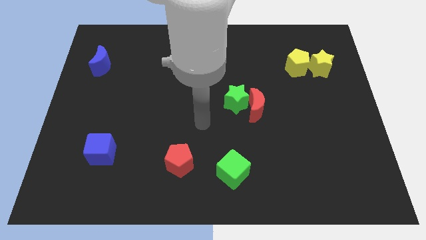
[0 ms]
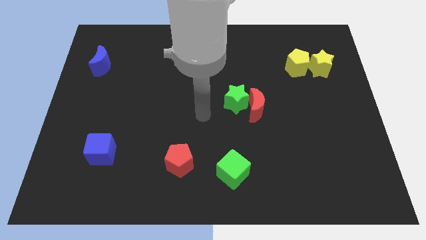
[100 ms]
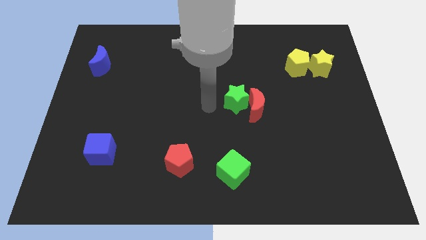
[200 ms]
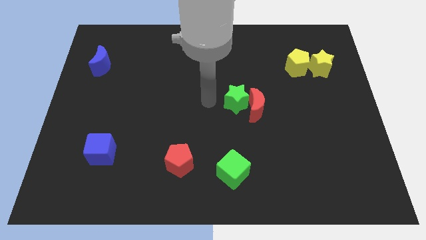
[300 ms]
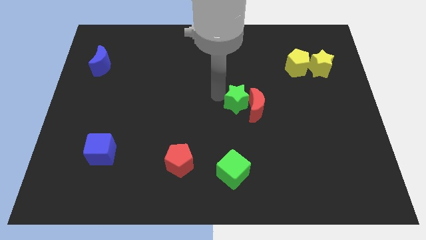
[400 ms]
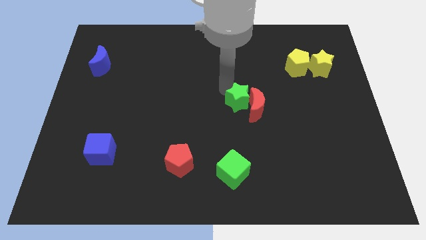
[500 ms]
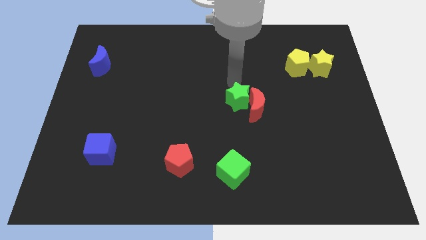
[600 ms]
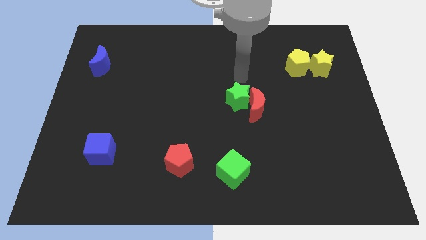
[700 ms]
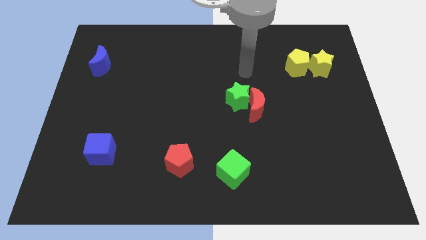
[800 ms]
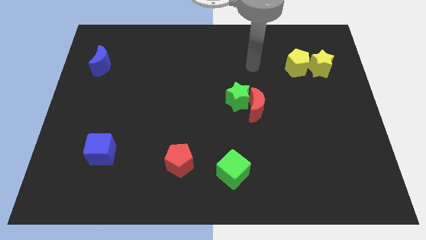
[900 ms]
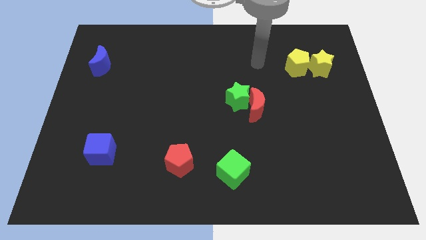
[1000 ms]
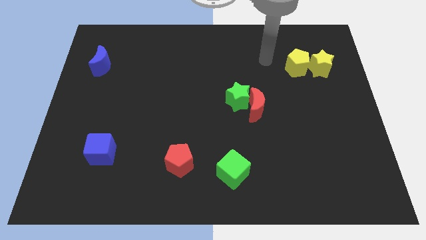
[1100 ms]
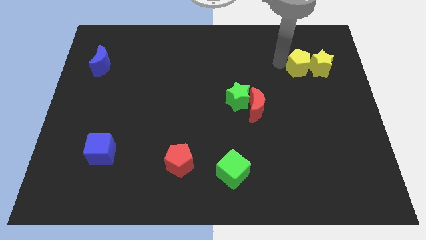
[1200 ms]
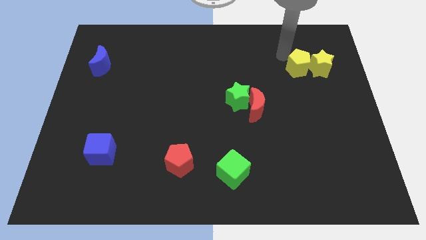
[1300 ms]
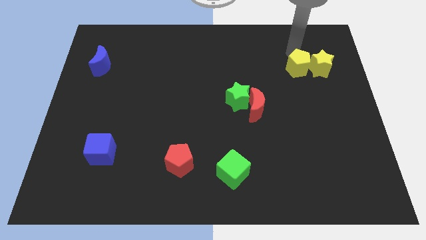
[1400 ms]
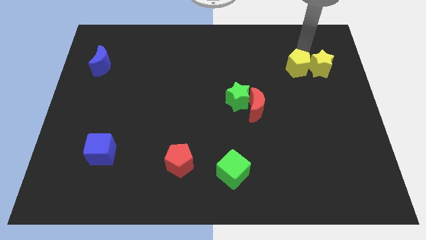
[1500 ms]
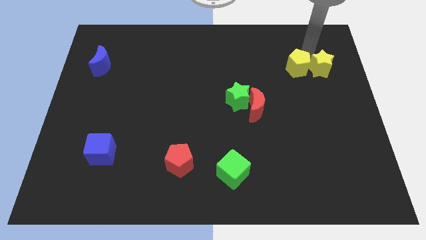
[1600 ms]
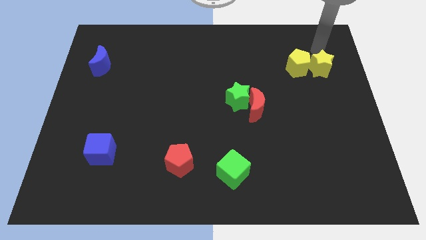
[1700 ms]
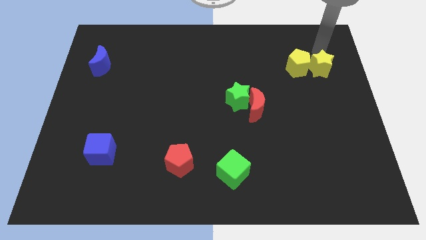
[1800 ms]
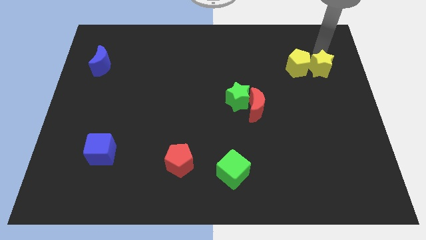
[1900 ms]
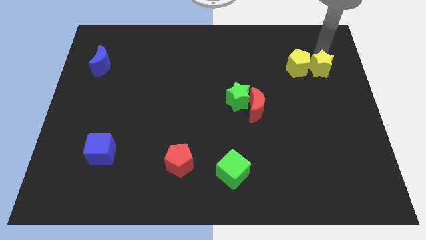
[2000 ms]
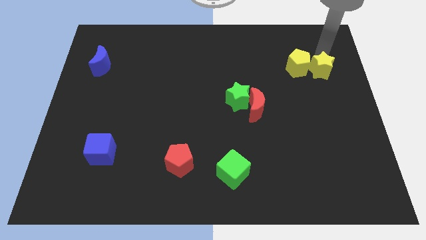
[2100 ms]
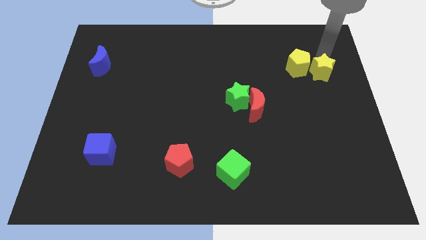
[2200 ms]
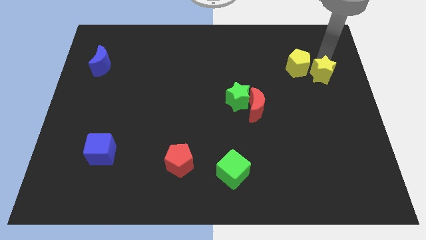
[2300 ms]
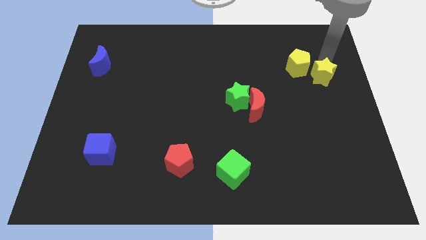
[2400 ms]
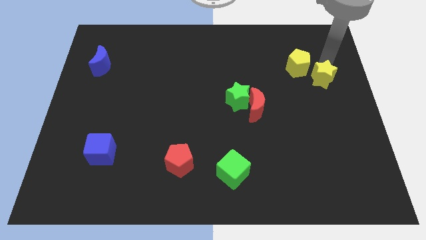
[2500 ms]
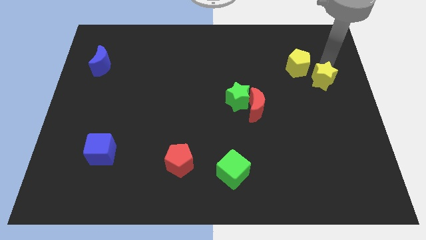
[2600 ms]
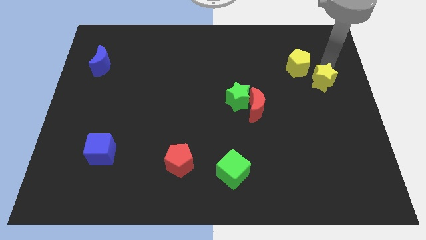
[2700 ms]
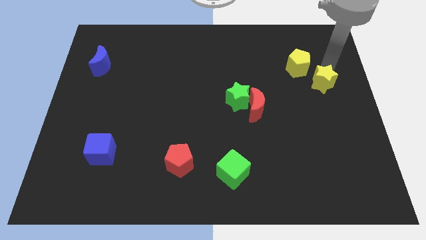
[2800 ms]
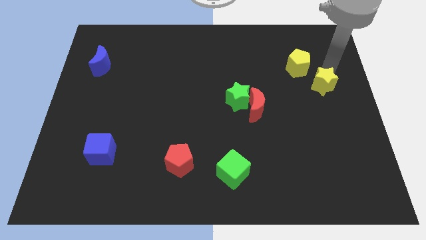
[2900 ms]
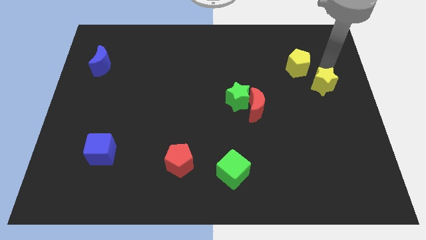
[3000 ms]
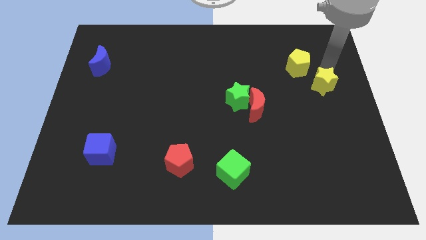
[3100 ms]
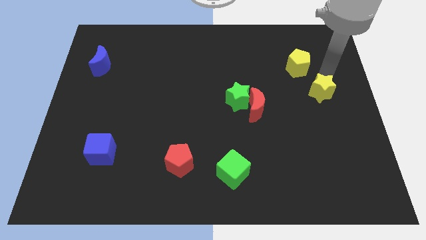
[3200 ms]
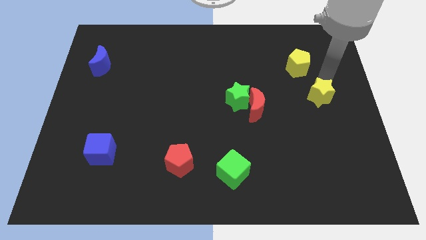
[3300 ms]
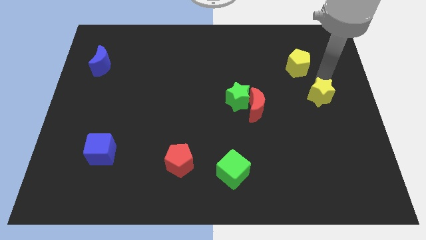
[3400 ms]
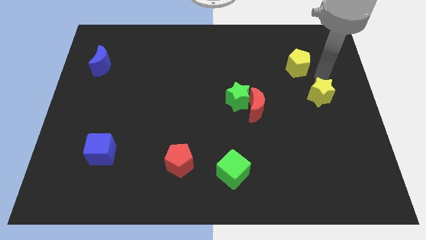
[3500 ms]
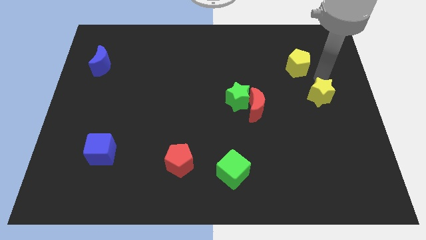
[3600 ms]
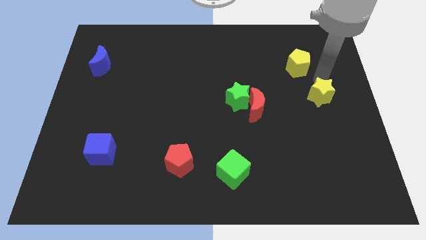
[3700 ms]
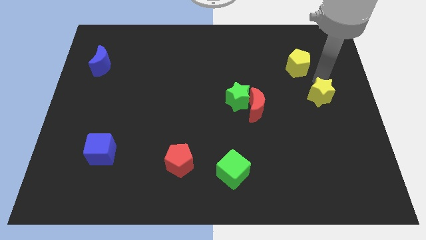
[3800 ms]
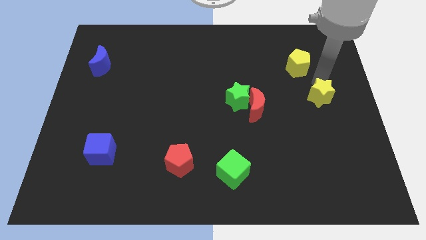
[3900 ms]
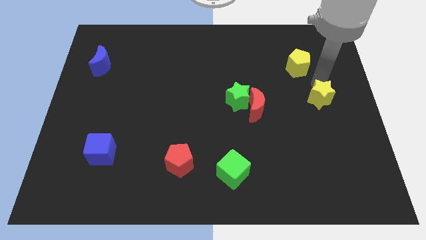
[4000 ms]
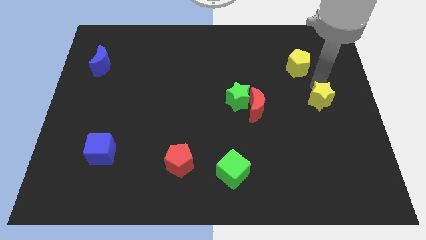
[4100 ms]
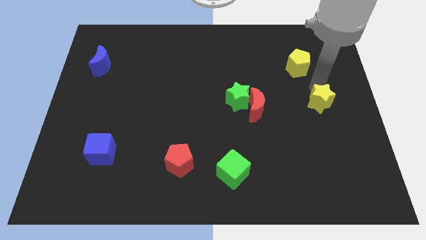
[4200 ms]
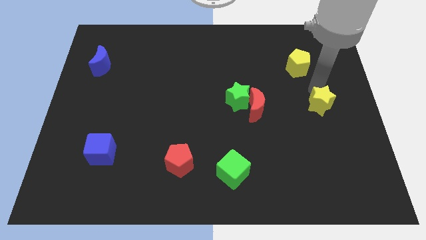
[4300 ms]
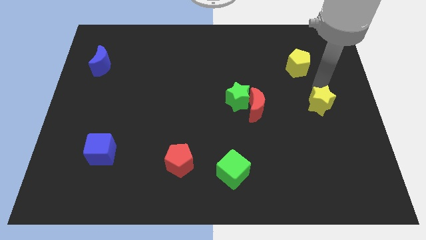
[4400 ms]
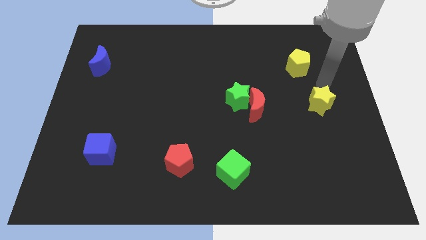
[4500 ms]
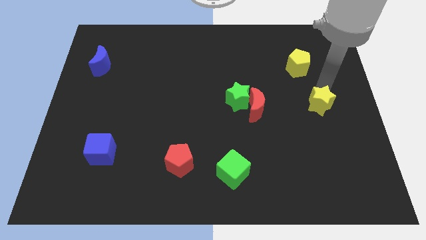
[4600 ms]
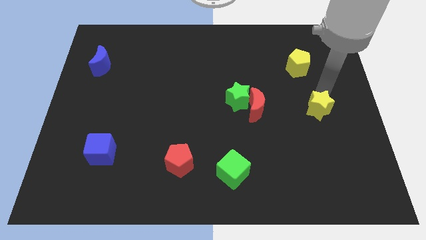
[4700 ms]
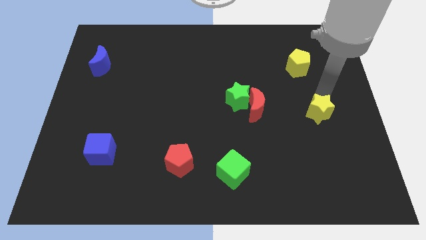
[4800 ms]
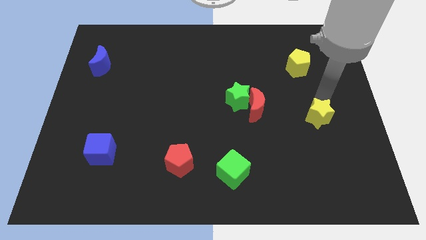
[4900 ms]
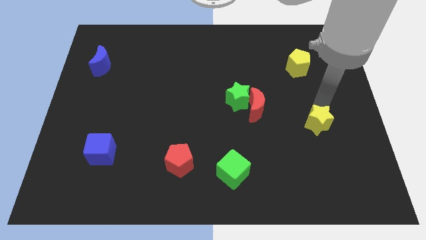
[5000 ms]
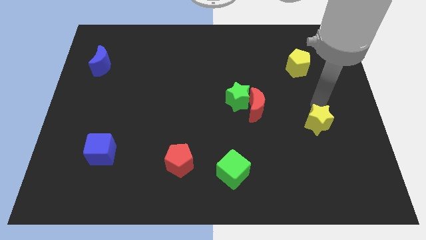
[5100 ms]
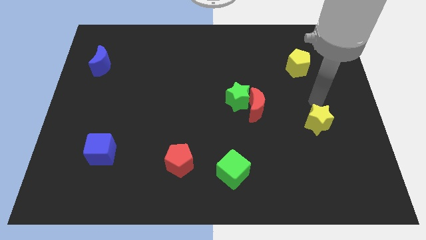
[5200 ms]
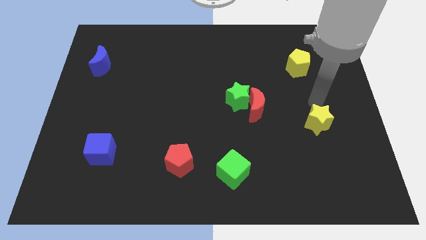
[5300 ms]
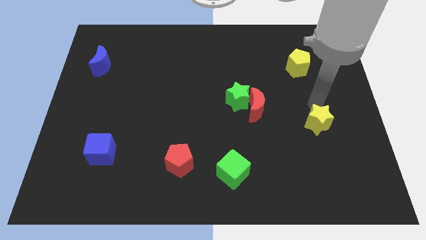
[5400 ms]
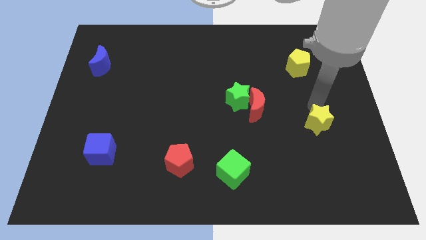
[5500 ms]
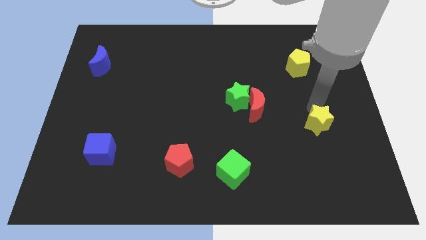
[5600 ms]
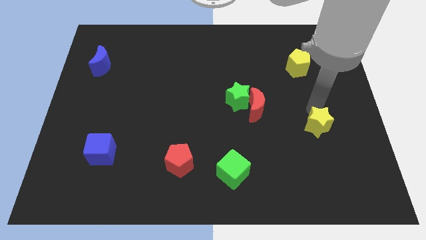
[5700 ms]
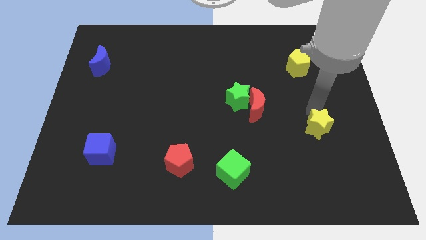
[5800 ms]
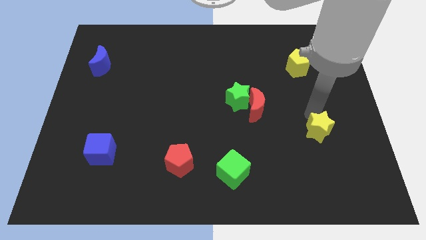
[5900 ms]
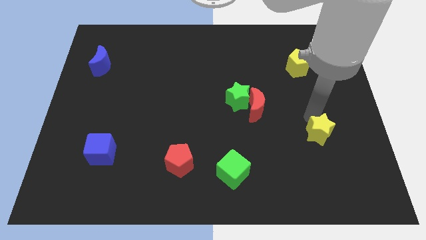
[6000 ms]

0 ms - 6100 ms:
move the yellow star downwards

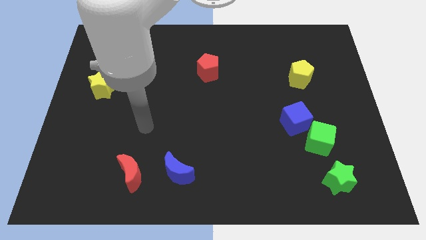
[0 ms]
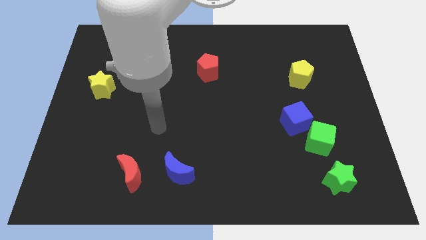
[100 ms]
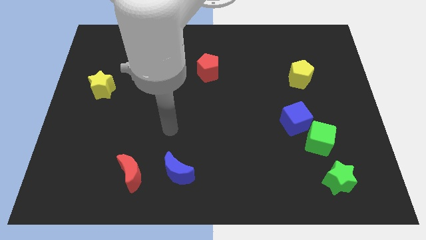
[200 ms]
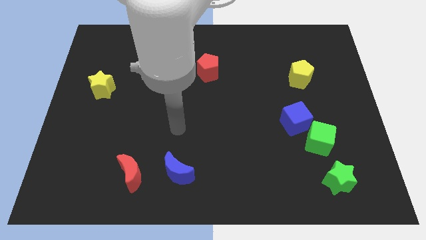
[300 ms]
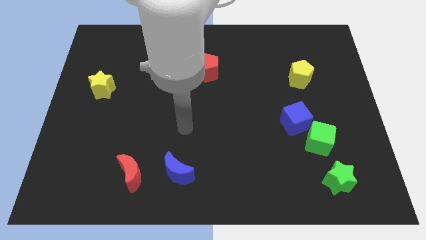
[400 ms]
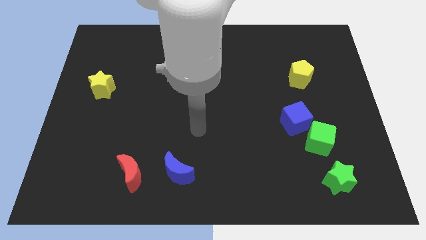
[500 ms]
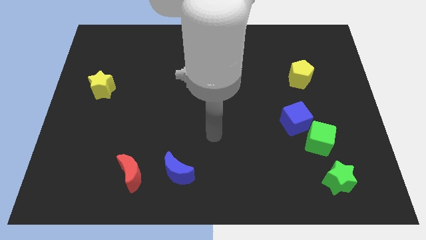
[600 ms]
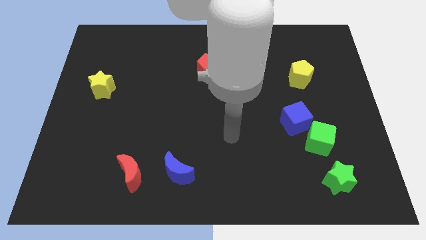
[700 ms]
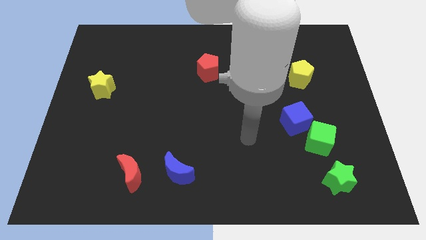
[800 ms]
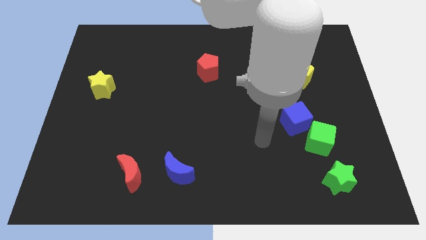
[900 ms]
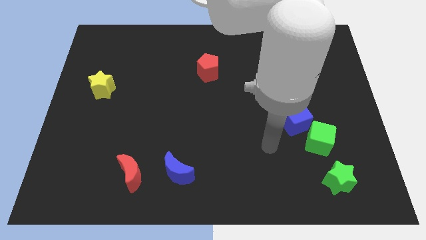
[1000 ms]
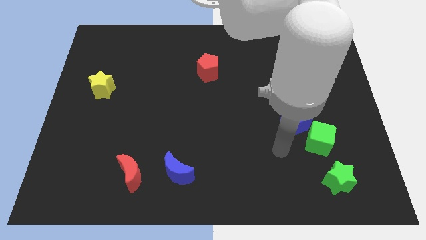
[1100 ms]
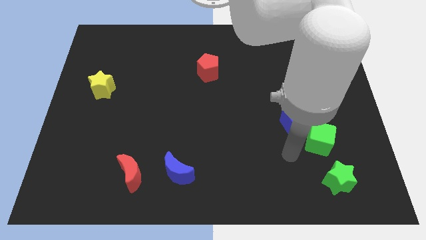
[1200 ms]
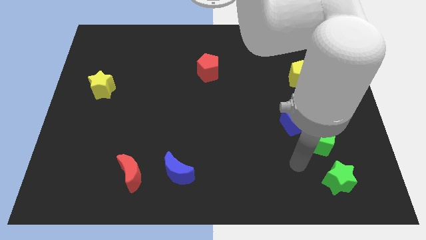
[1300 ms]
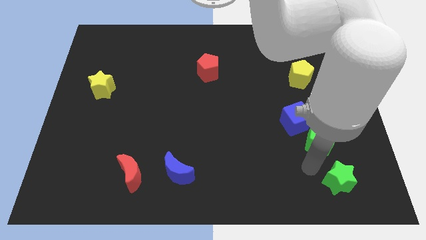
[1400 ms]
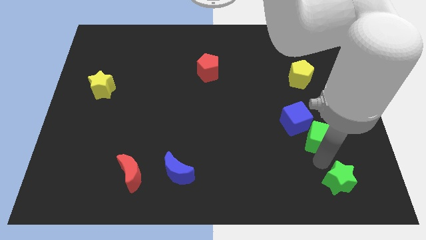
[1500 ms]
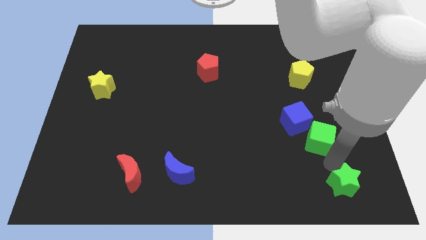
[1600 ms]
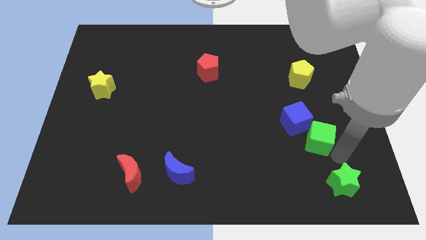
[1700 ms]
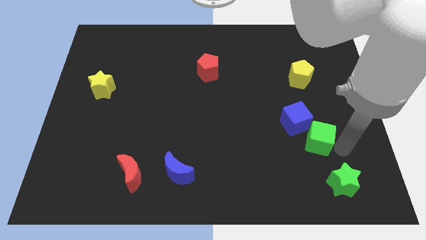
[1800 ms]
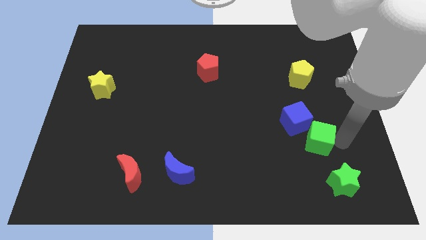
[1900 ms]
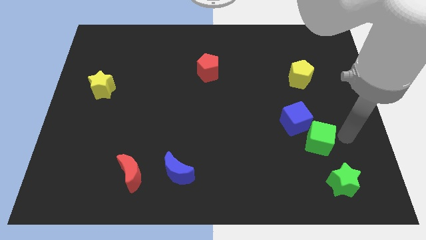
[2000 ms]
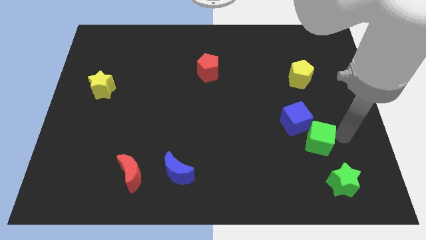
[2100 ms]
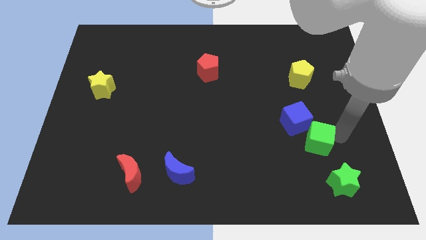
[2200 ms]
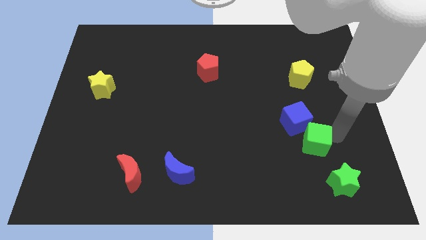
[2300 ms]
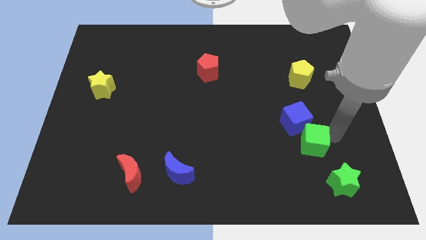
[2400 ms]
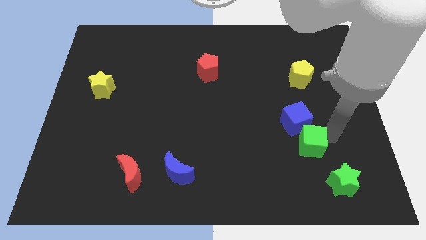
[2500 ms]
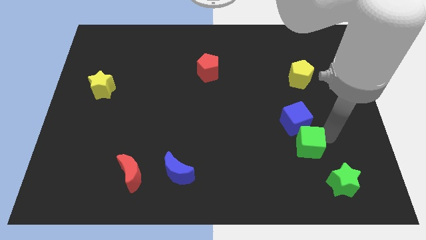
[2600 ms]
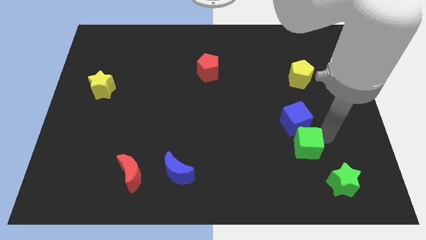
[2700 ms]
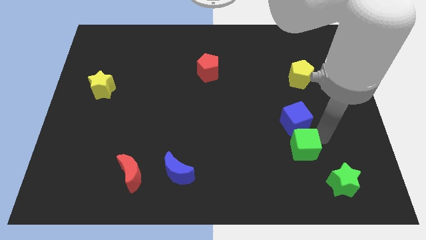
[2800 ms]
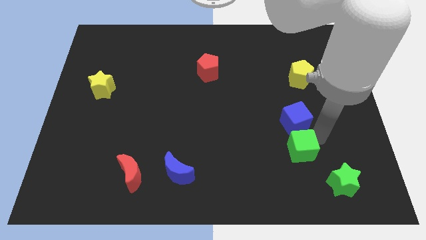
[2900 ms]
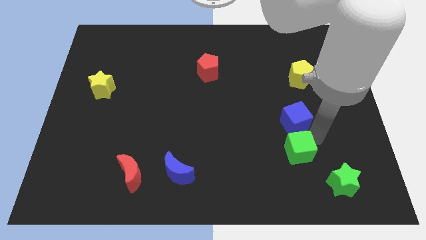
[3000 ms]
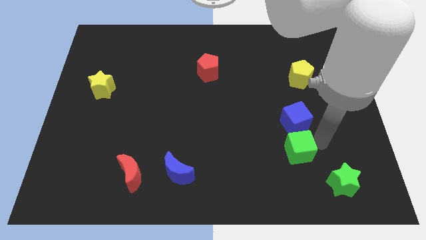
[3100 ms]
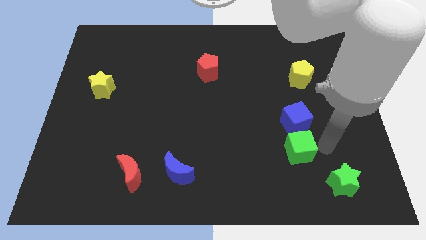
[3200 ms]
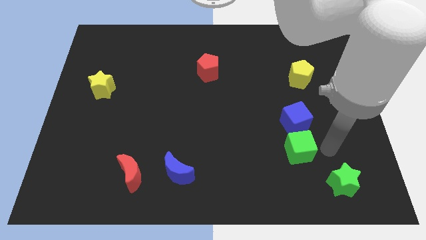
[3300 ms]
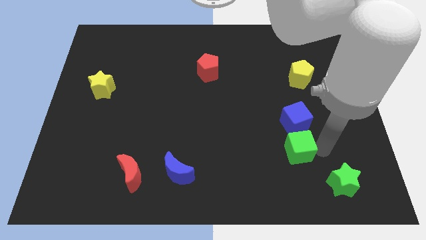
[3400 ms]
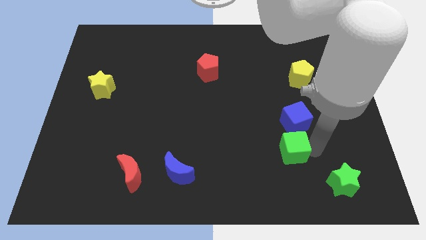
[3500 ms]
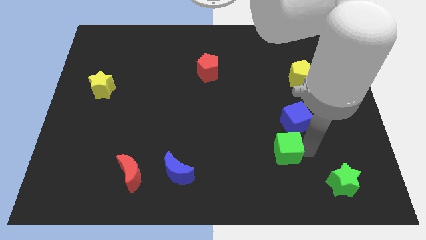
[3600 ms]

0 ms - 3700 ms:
move the green cube to the left a little
